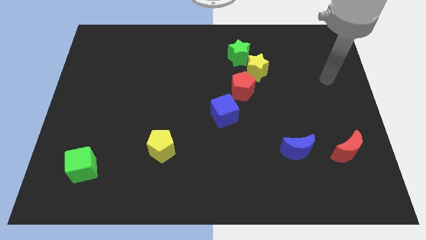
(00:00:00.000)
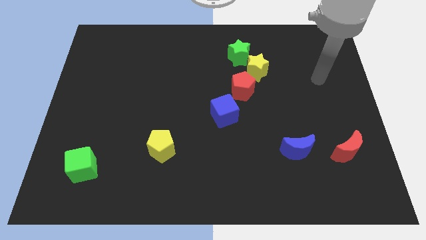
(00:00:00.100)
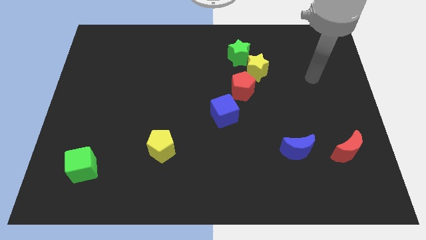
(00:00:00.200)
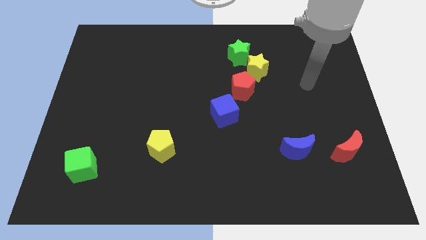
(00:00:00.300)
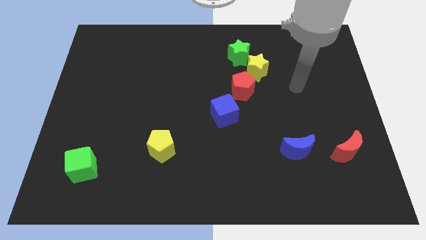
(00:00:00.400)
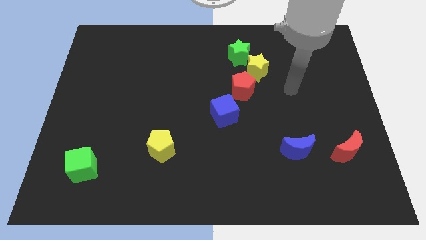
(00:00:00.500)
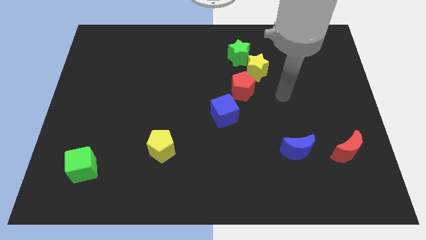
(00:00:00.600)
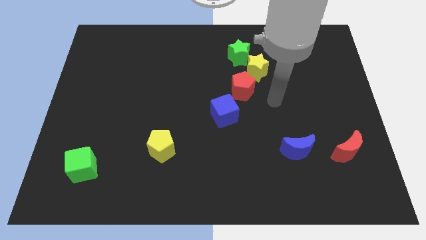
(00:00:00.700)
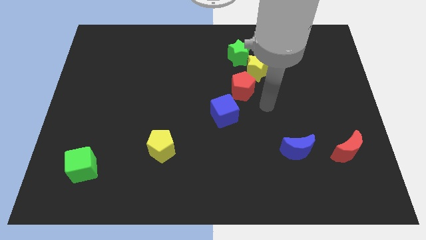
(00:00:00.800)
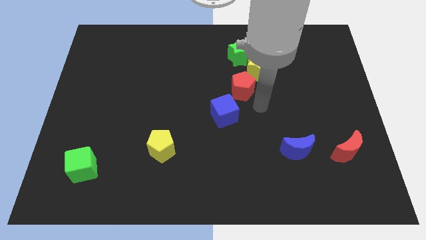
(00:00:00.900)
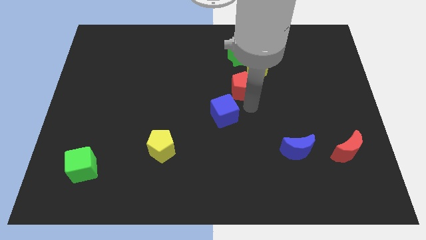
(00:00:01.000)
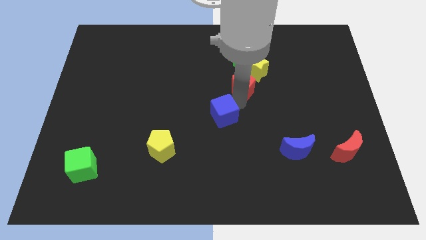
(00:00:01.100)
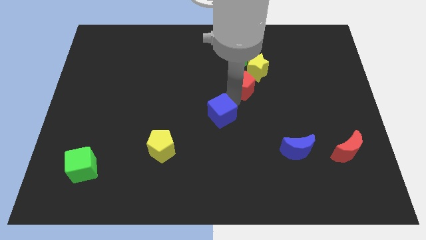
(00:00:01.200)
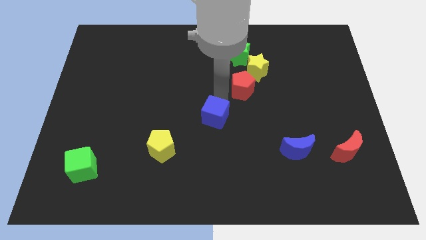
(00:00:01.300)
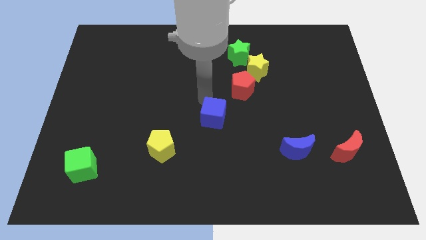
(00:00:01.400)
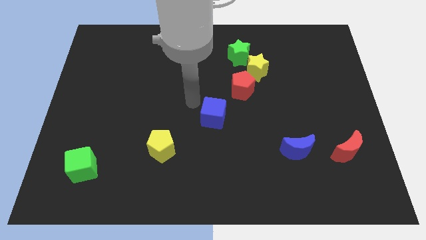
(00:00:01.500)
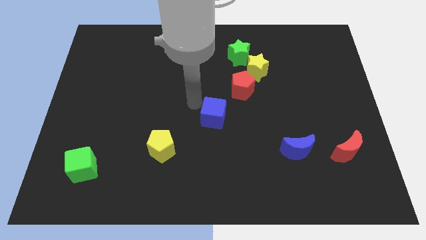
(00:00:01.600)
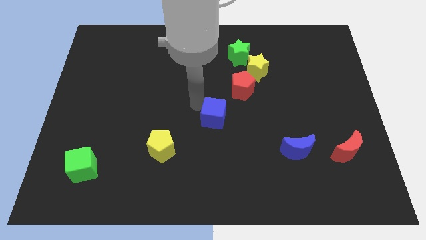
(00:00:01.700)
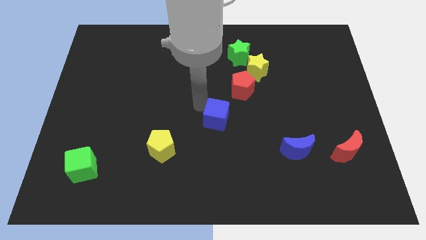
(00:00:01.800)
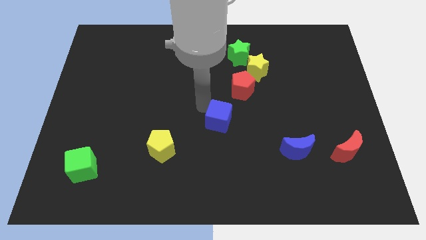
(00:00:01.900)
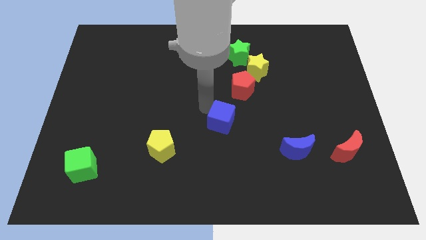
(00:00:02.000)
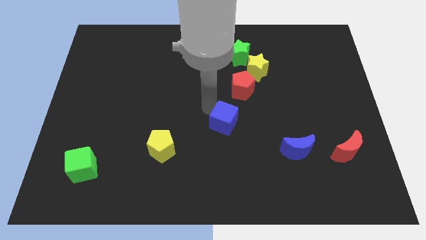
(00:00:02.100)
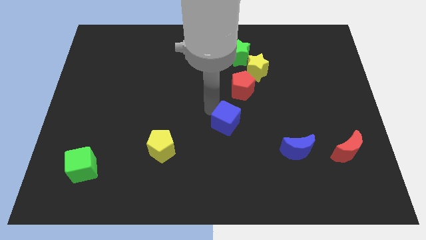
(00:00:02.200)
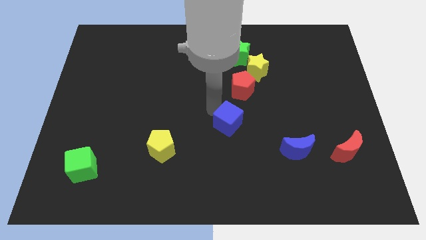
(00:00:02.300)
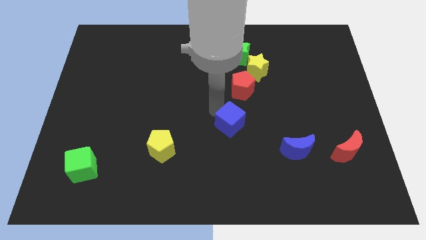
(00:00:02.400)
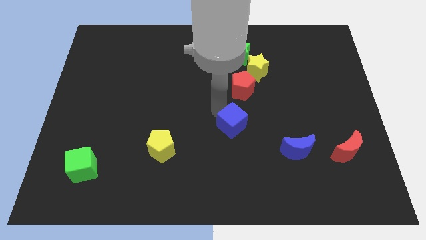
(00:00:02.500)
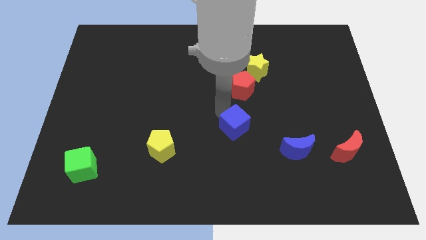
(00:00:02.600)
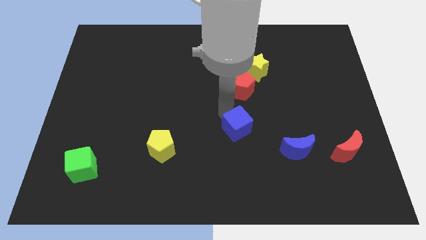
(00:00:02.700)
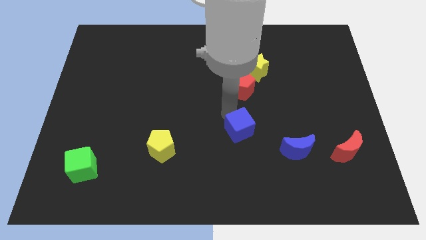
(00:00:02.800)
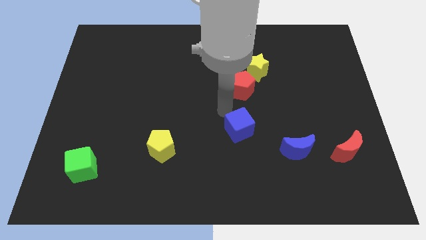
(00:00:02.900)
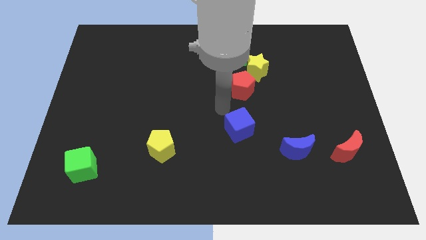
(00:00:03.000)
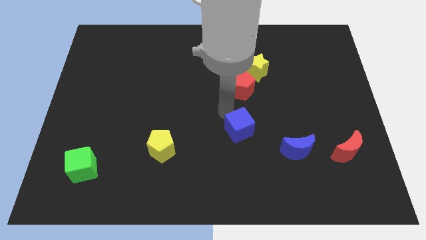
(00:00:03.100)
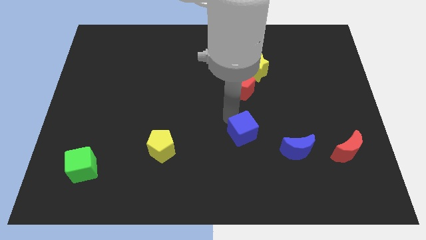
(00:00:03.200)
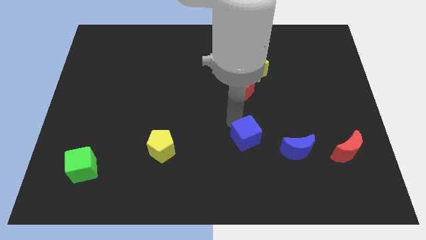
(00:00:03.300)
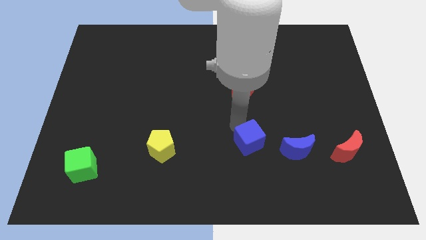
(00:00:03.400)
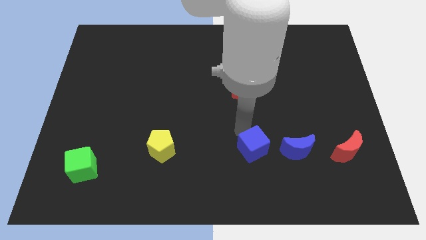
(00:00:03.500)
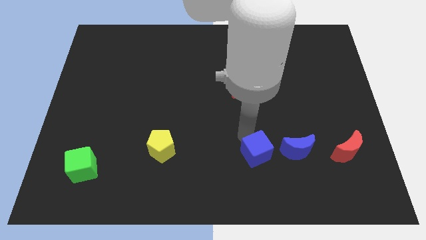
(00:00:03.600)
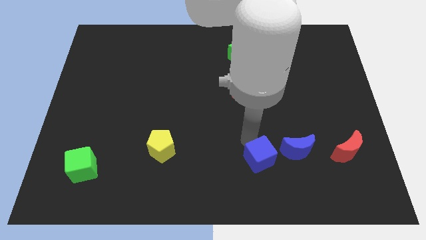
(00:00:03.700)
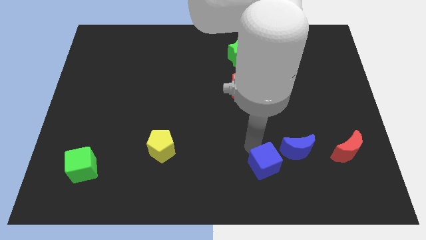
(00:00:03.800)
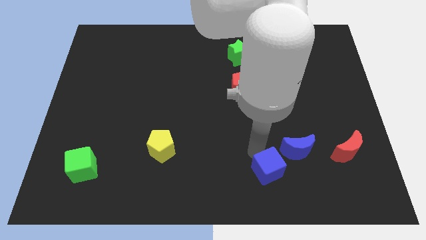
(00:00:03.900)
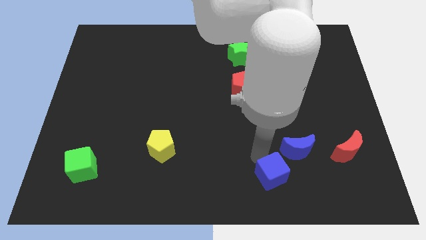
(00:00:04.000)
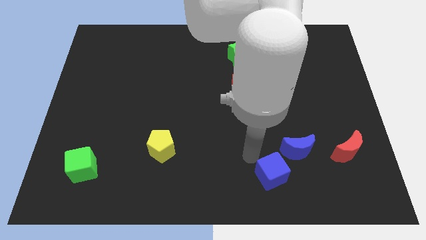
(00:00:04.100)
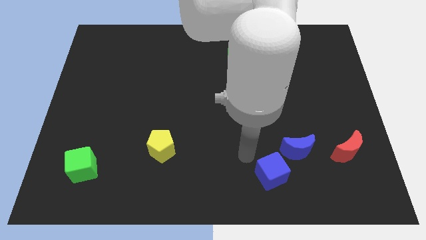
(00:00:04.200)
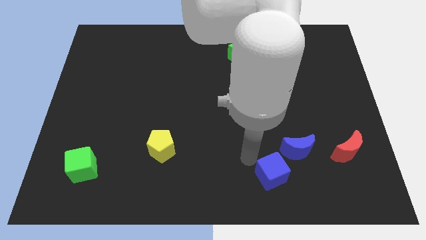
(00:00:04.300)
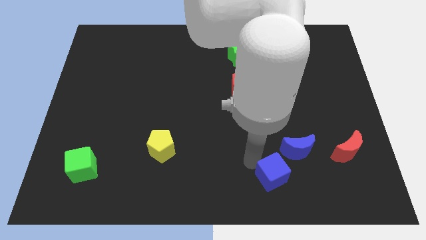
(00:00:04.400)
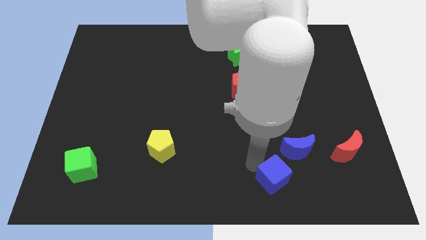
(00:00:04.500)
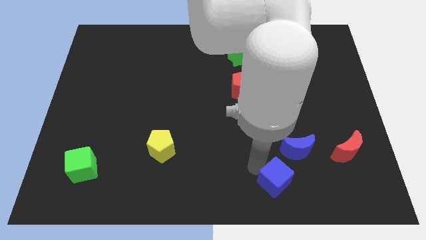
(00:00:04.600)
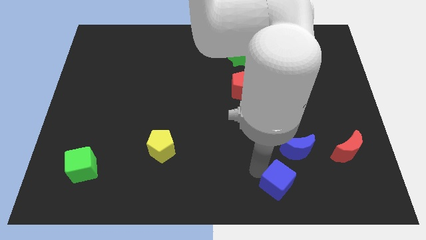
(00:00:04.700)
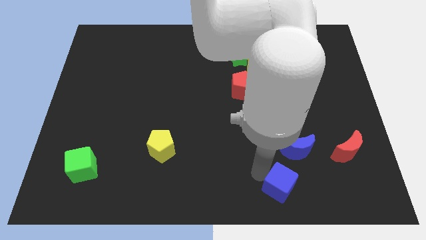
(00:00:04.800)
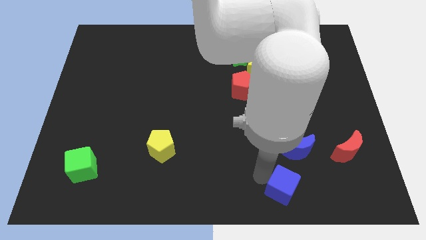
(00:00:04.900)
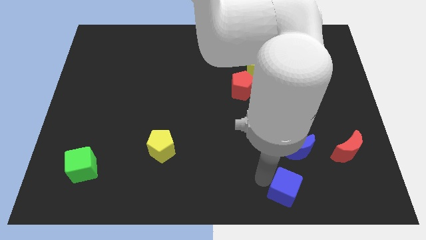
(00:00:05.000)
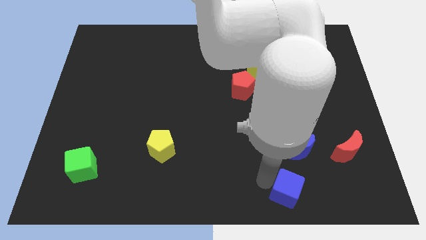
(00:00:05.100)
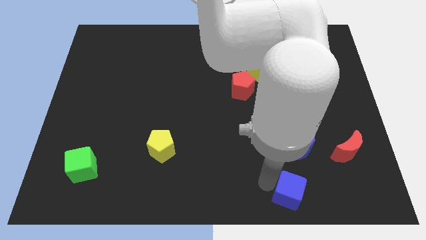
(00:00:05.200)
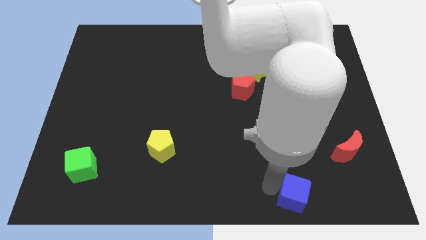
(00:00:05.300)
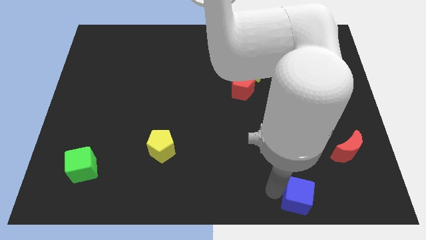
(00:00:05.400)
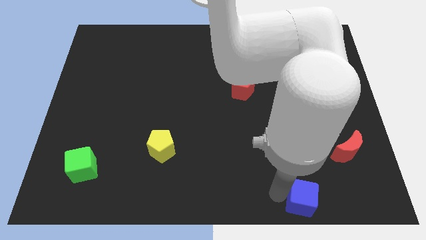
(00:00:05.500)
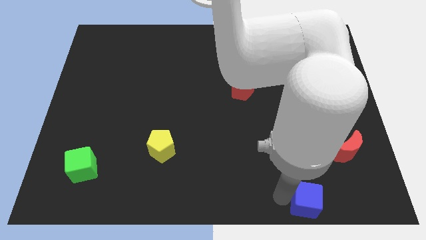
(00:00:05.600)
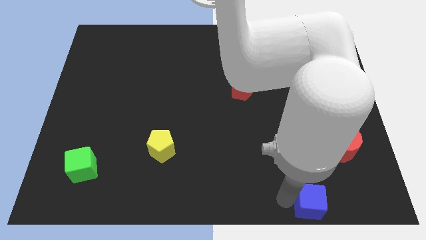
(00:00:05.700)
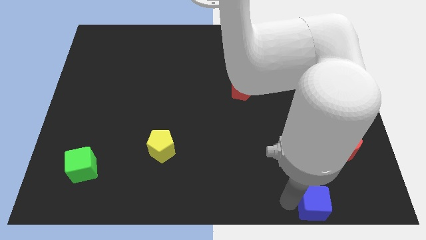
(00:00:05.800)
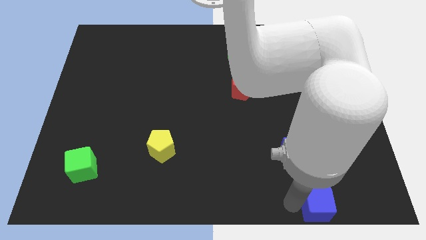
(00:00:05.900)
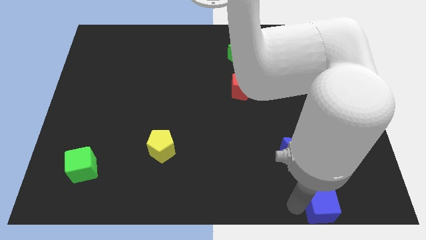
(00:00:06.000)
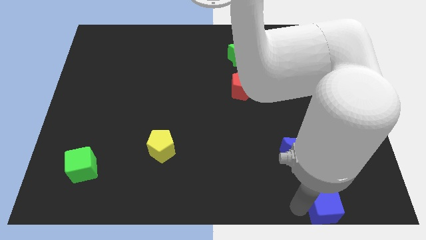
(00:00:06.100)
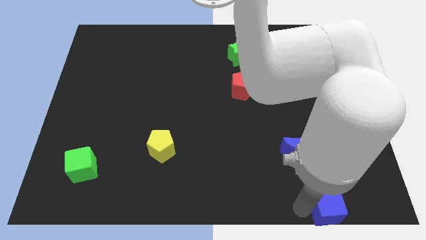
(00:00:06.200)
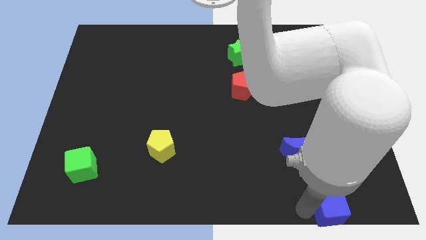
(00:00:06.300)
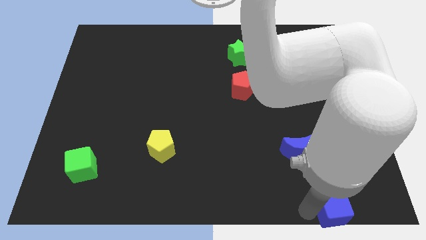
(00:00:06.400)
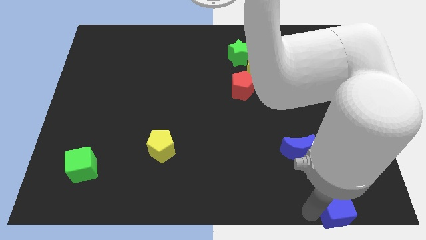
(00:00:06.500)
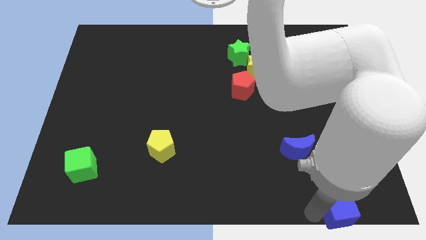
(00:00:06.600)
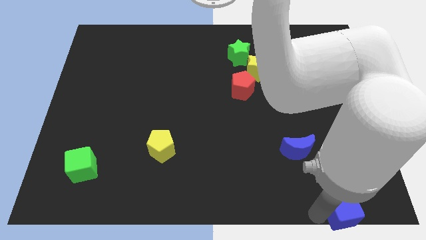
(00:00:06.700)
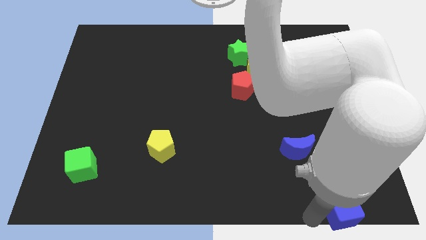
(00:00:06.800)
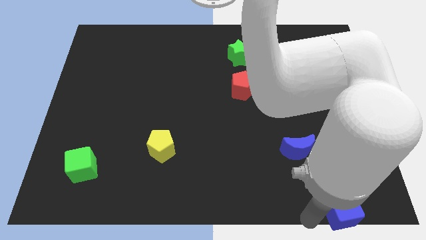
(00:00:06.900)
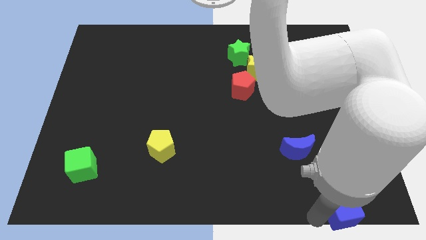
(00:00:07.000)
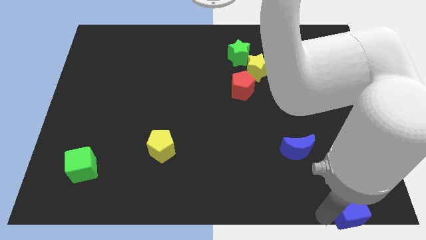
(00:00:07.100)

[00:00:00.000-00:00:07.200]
move the blue cube to the bottom right
